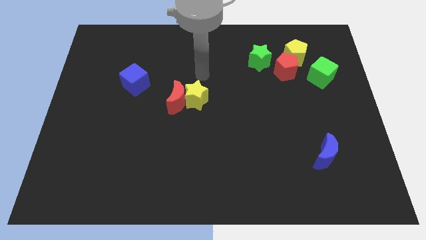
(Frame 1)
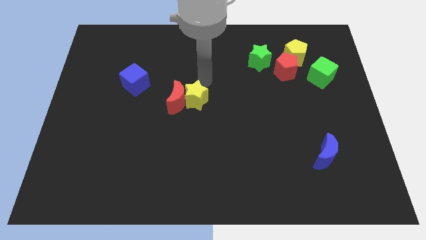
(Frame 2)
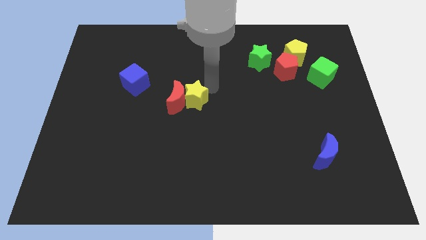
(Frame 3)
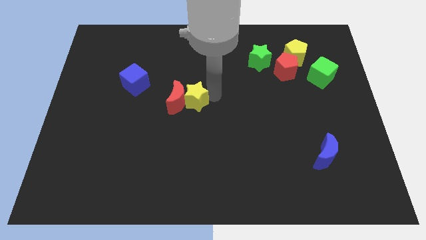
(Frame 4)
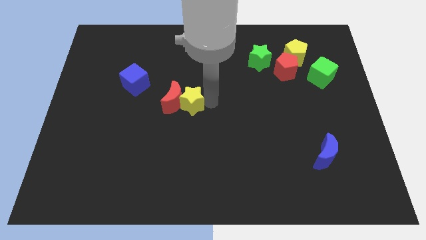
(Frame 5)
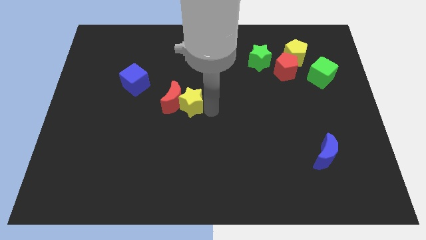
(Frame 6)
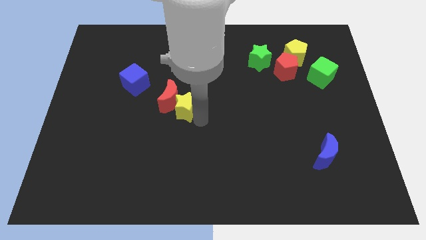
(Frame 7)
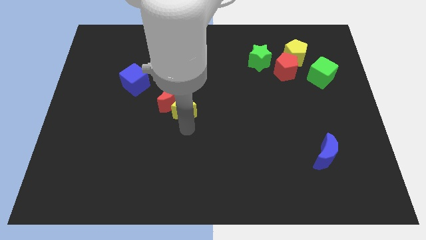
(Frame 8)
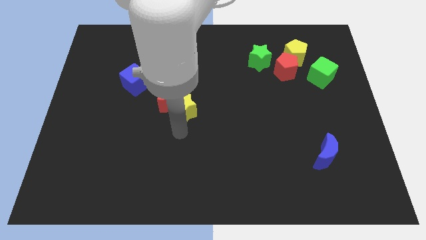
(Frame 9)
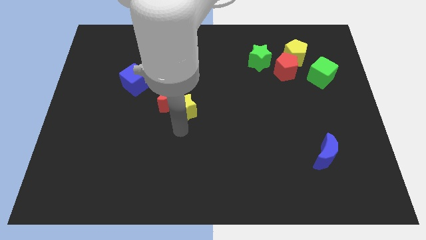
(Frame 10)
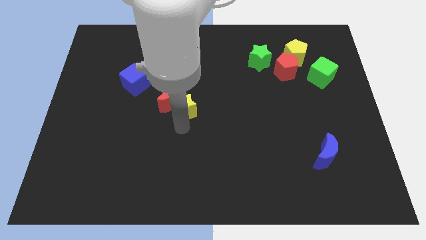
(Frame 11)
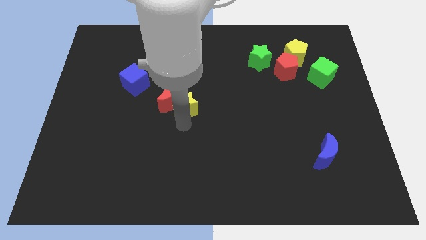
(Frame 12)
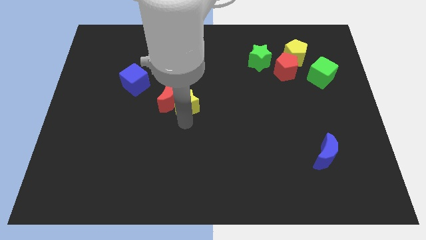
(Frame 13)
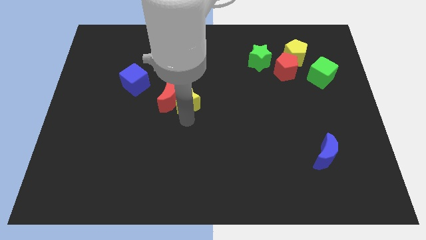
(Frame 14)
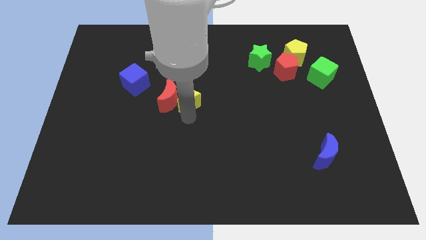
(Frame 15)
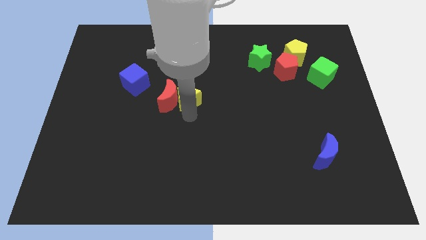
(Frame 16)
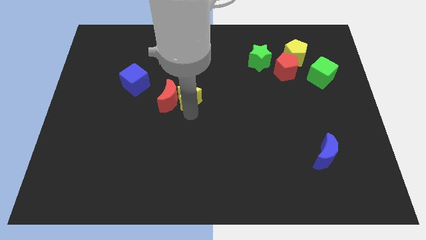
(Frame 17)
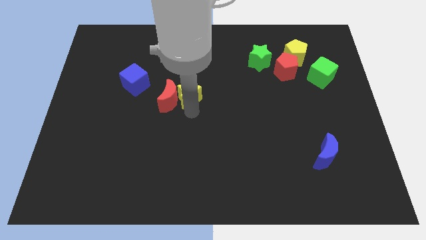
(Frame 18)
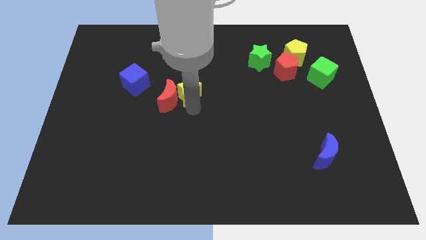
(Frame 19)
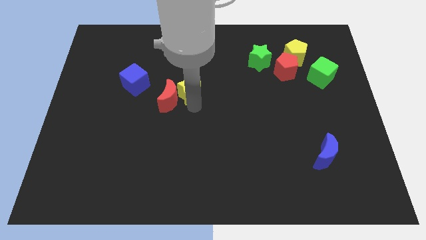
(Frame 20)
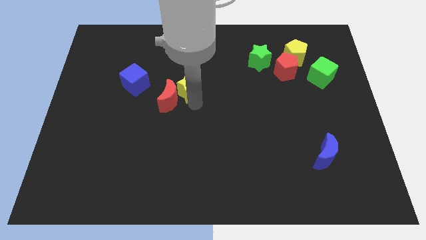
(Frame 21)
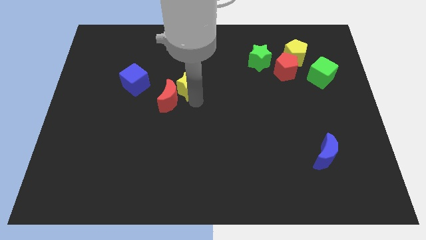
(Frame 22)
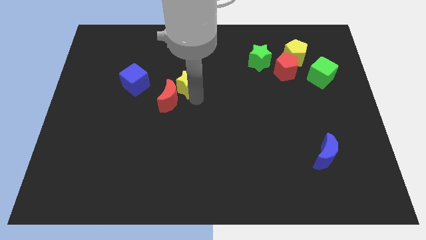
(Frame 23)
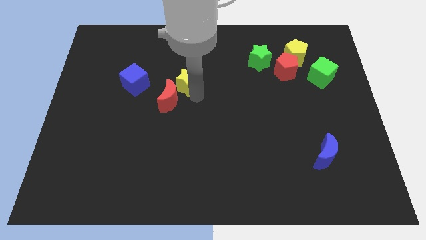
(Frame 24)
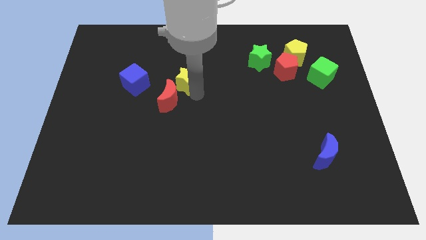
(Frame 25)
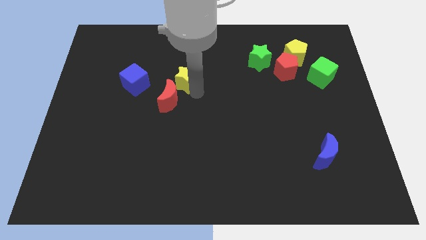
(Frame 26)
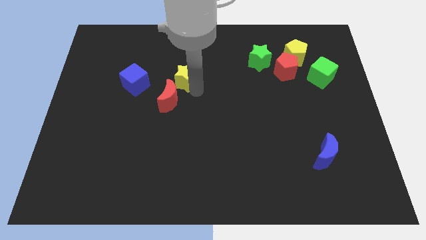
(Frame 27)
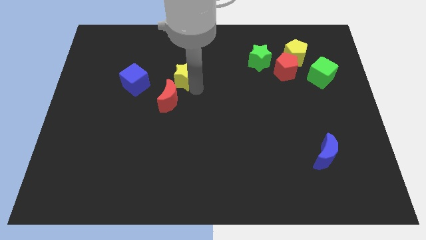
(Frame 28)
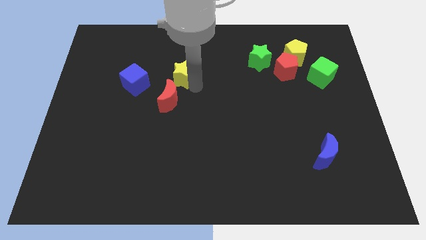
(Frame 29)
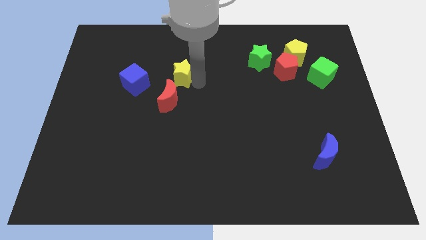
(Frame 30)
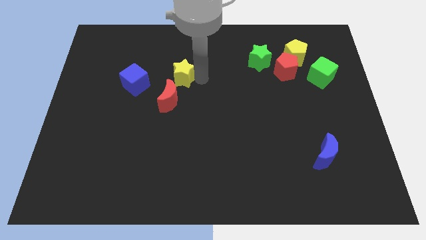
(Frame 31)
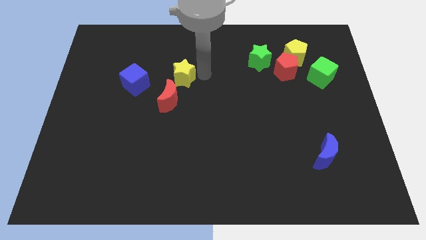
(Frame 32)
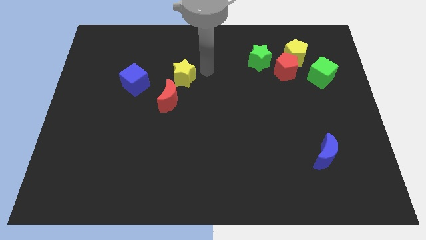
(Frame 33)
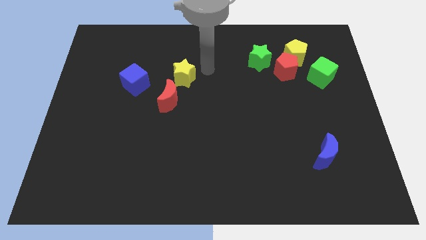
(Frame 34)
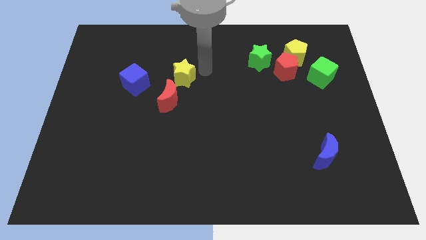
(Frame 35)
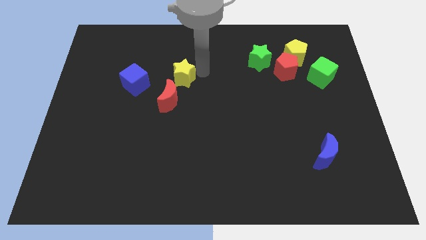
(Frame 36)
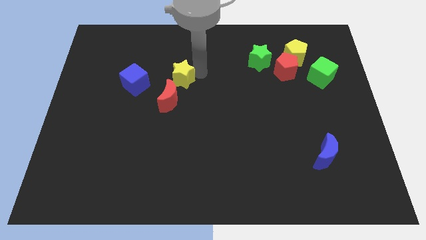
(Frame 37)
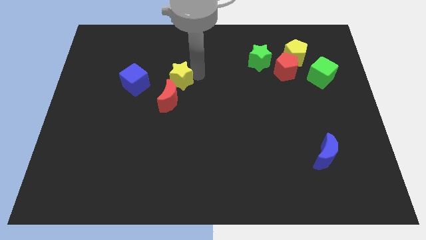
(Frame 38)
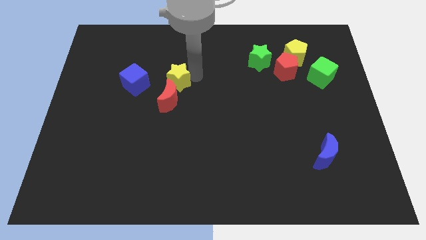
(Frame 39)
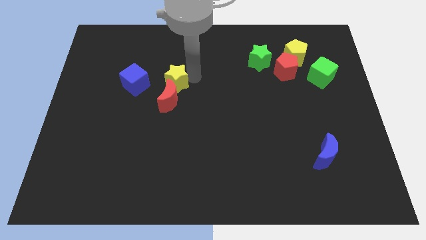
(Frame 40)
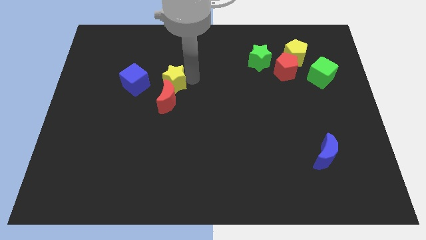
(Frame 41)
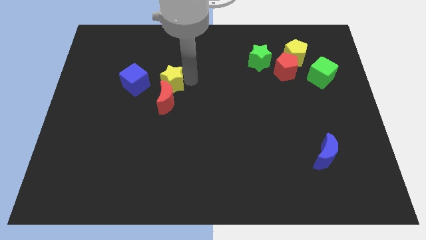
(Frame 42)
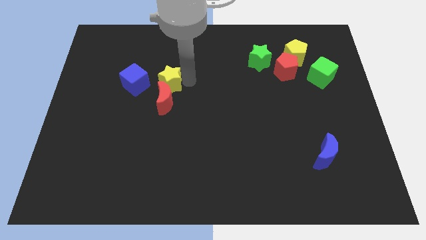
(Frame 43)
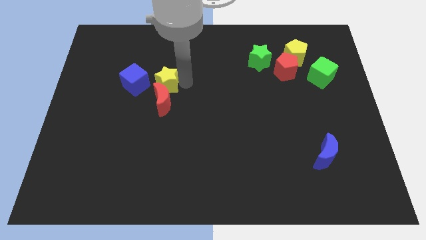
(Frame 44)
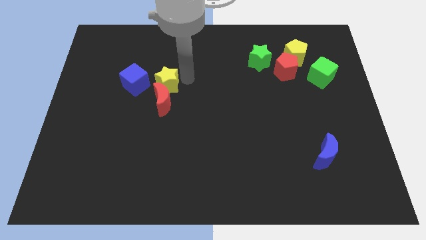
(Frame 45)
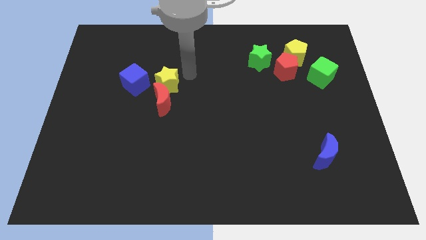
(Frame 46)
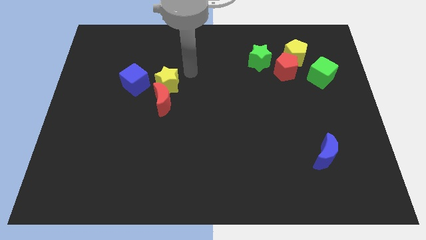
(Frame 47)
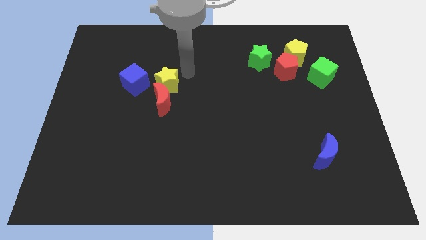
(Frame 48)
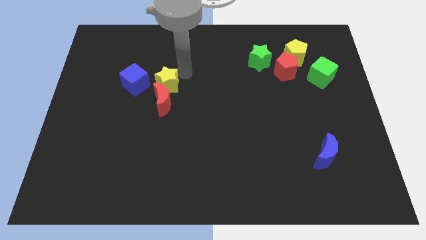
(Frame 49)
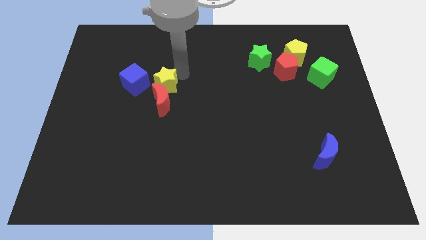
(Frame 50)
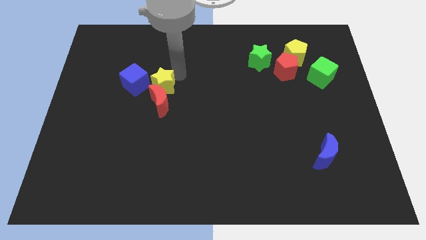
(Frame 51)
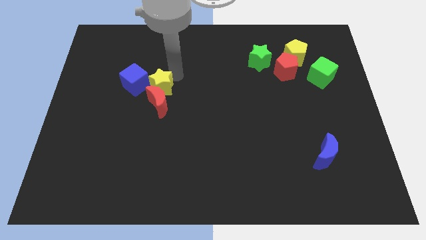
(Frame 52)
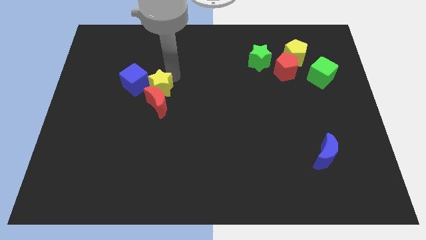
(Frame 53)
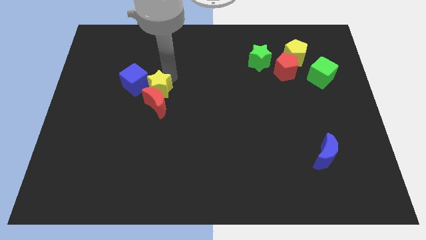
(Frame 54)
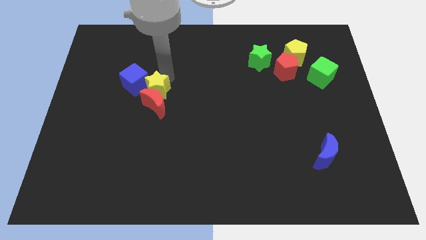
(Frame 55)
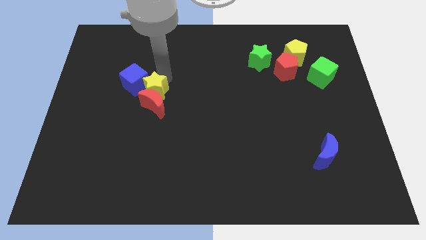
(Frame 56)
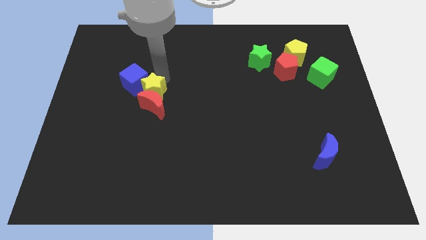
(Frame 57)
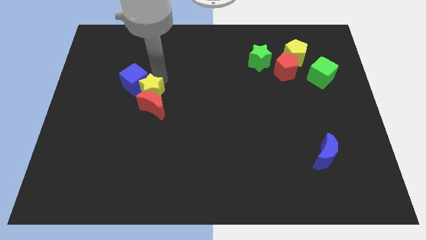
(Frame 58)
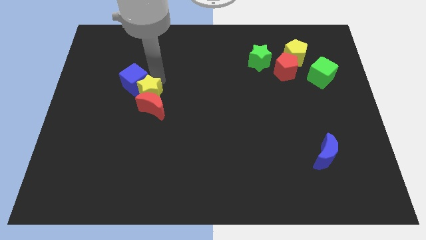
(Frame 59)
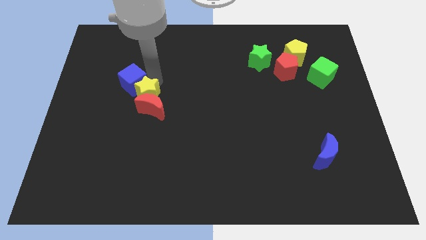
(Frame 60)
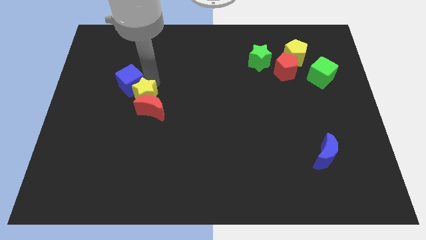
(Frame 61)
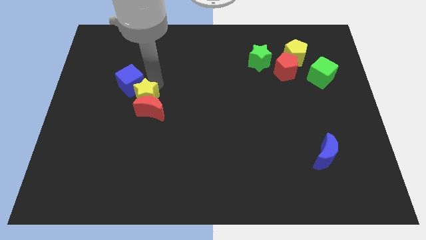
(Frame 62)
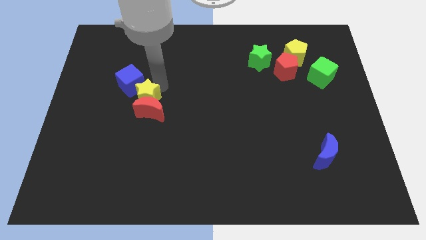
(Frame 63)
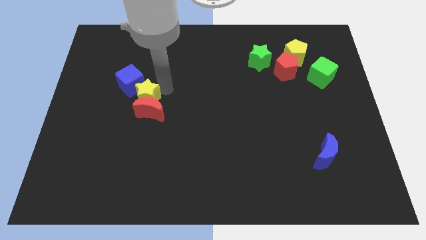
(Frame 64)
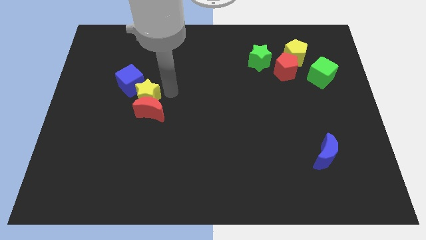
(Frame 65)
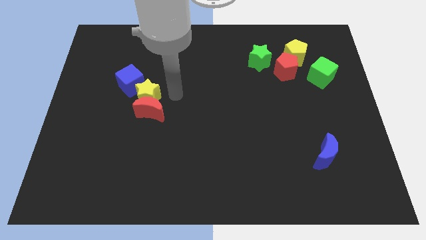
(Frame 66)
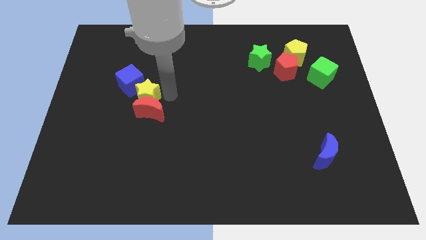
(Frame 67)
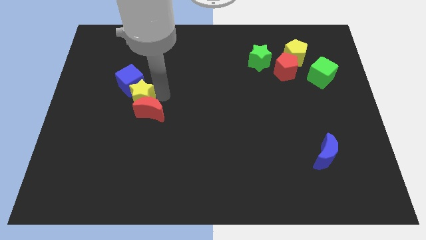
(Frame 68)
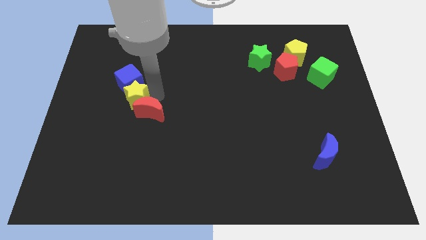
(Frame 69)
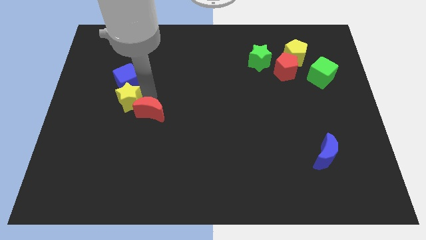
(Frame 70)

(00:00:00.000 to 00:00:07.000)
move the yellow star to the bottom left side of the blue cube

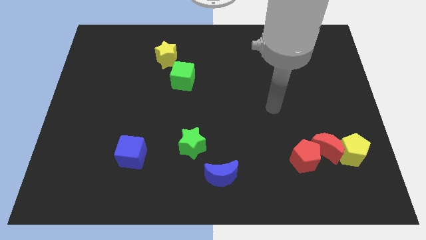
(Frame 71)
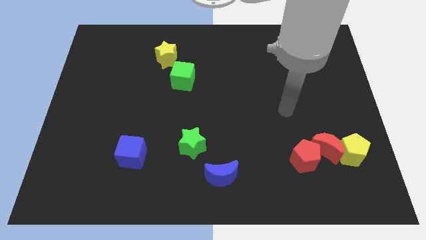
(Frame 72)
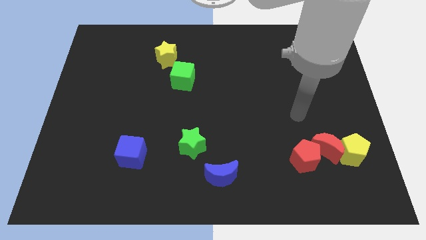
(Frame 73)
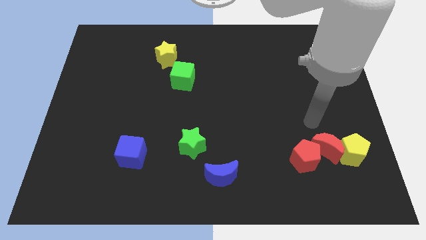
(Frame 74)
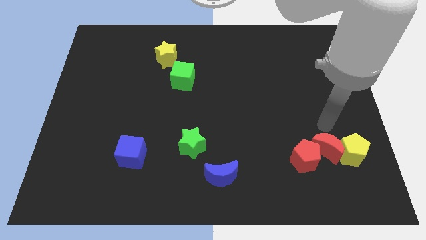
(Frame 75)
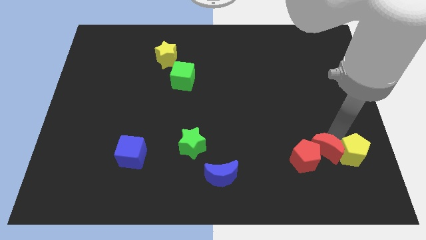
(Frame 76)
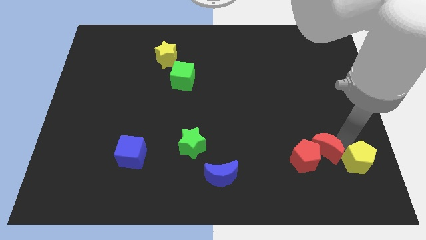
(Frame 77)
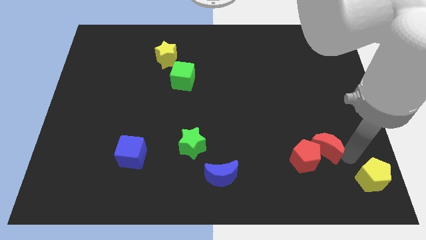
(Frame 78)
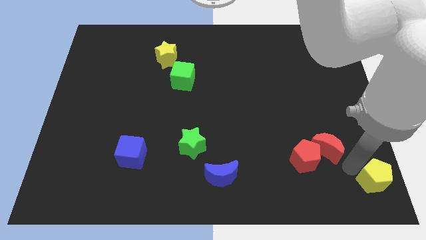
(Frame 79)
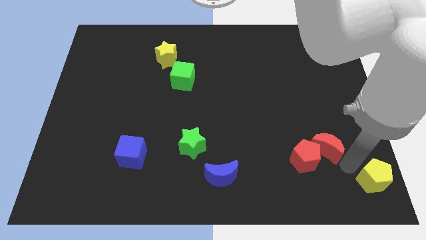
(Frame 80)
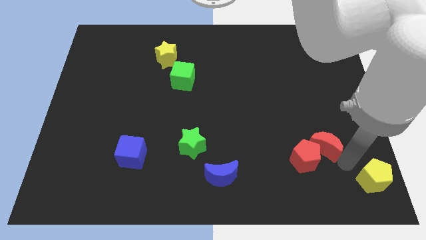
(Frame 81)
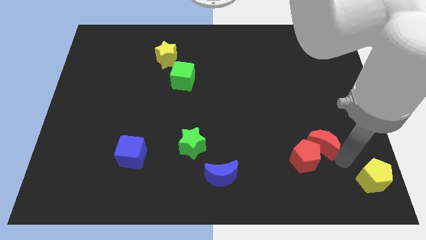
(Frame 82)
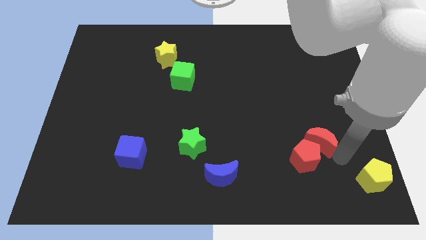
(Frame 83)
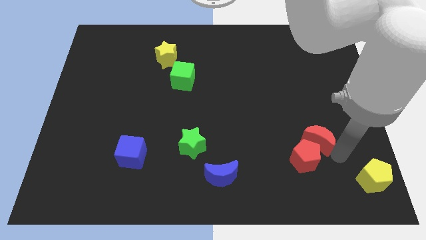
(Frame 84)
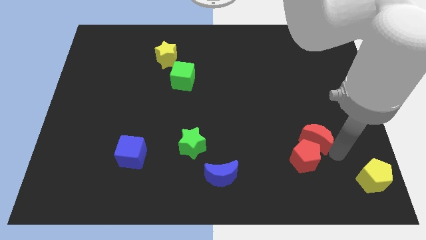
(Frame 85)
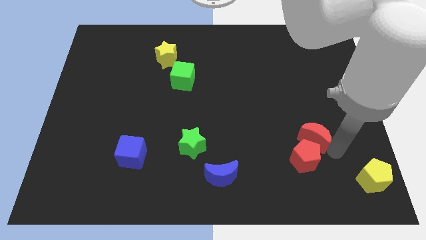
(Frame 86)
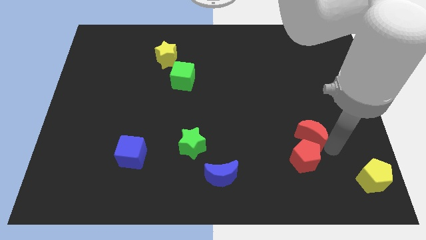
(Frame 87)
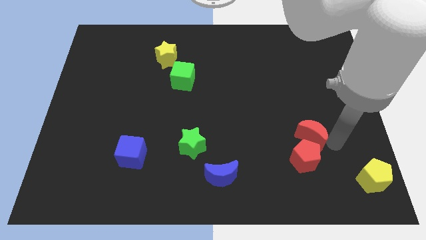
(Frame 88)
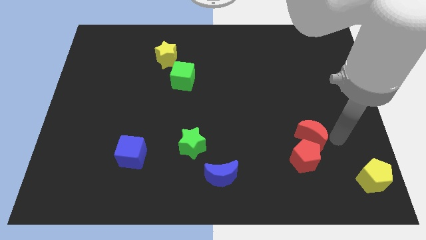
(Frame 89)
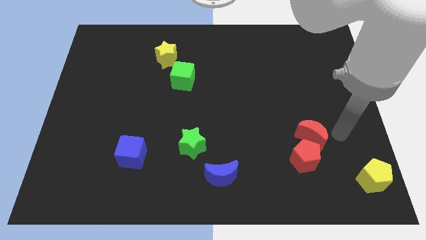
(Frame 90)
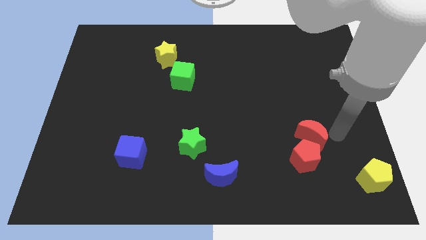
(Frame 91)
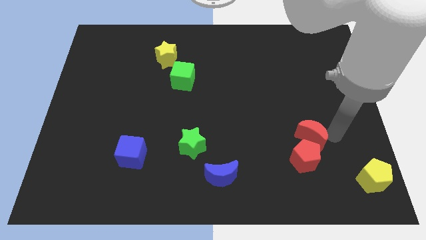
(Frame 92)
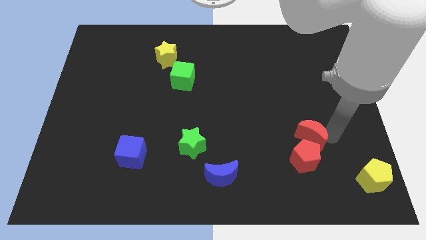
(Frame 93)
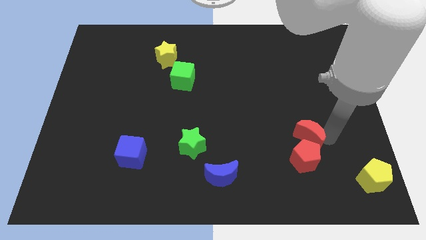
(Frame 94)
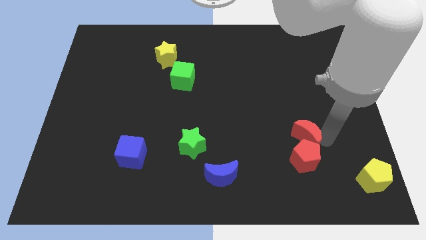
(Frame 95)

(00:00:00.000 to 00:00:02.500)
push the red moon diagonally up and to the left of the red pentagon
